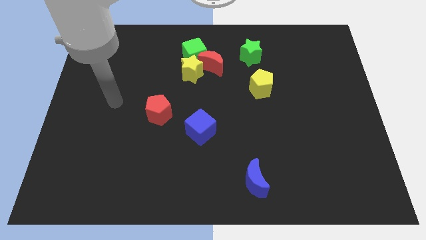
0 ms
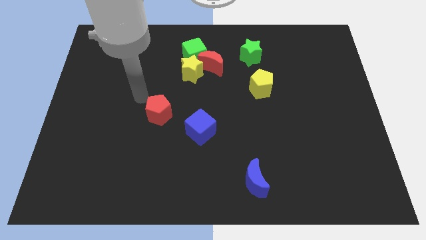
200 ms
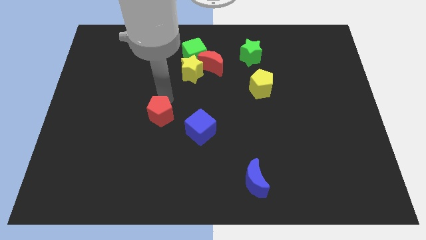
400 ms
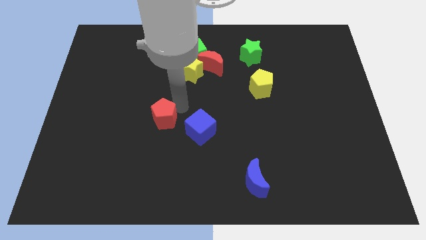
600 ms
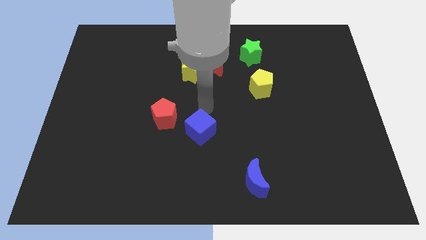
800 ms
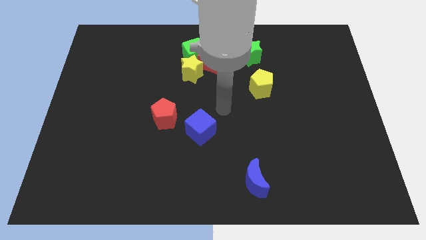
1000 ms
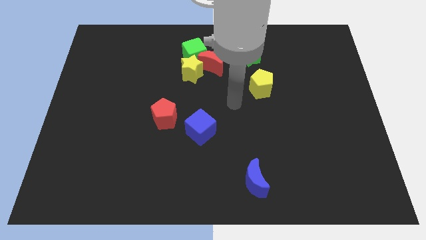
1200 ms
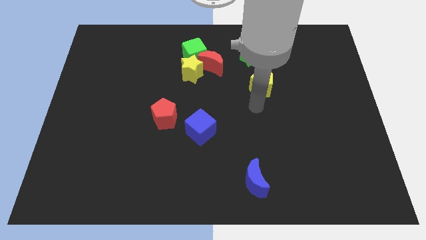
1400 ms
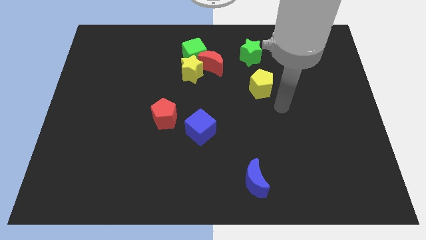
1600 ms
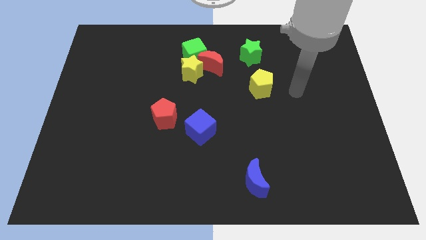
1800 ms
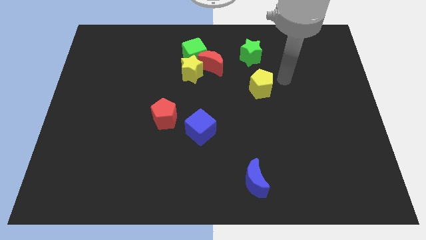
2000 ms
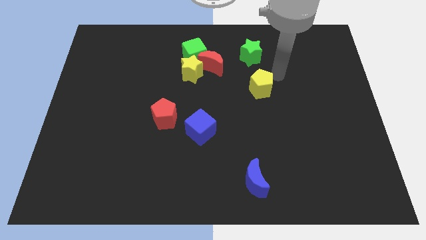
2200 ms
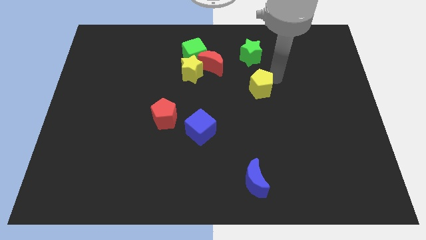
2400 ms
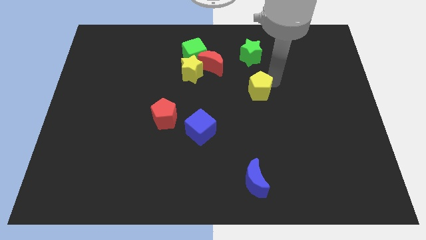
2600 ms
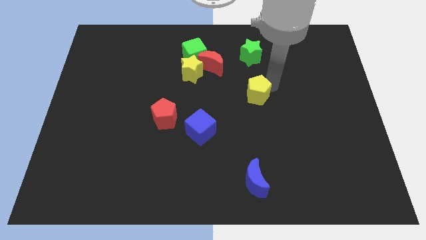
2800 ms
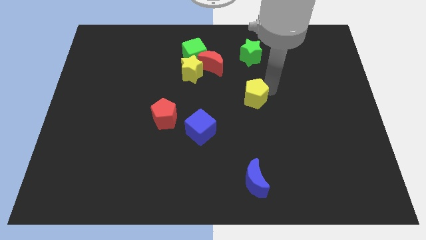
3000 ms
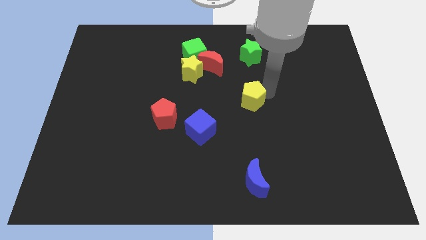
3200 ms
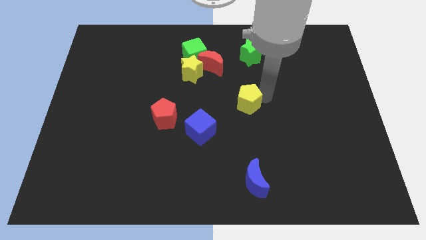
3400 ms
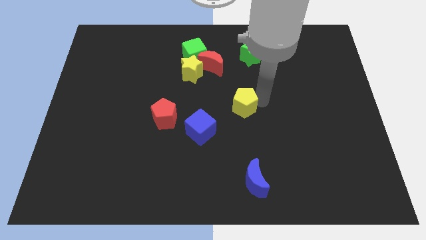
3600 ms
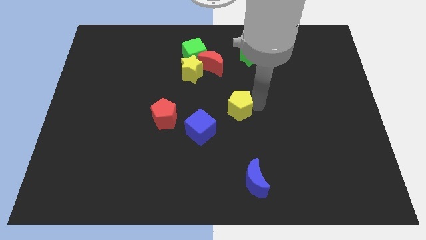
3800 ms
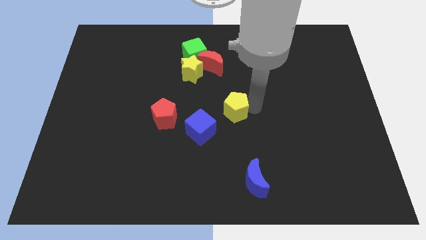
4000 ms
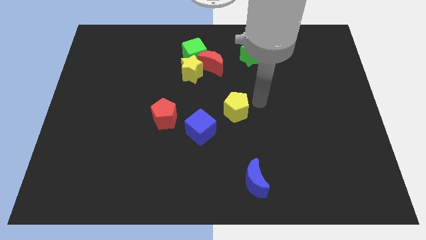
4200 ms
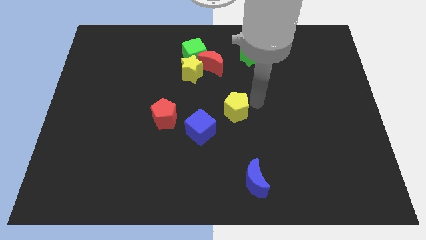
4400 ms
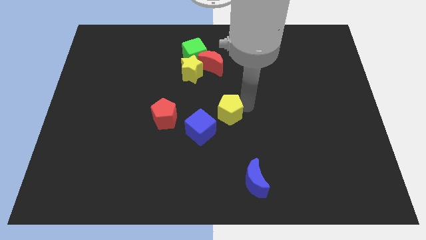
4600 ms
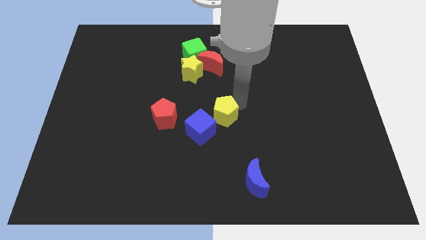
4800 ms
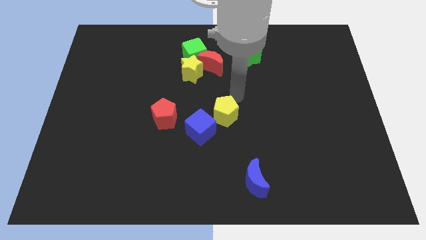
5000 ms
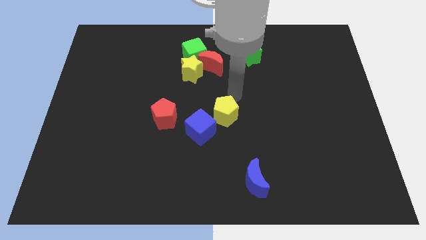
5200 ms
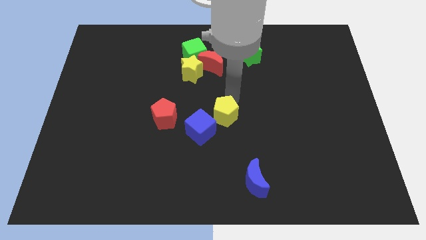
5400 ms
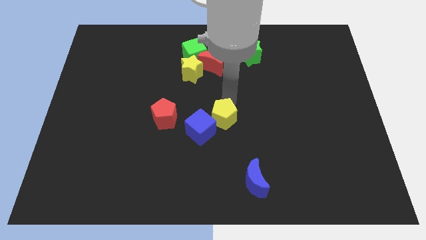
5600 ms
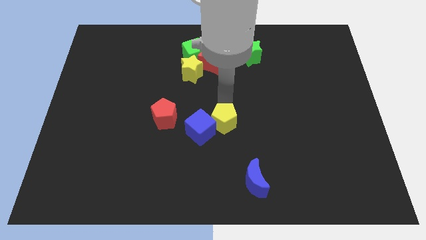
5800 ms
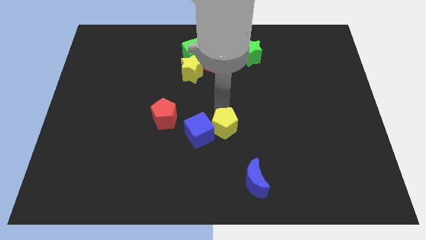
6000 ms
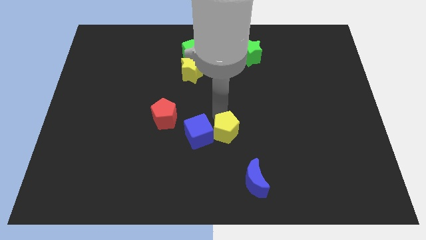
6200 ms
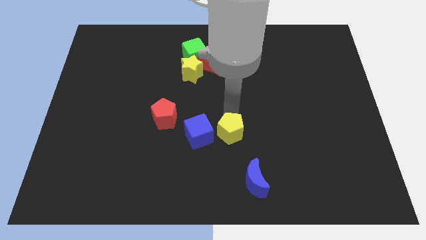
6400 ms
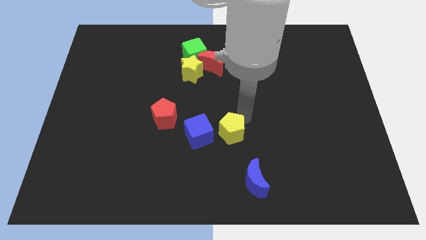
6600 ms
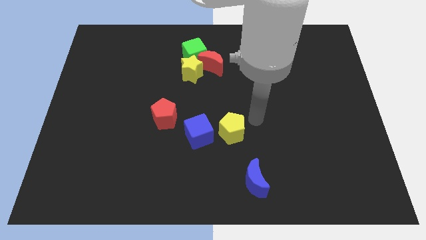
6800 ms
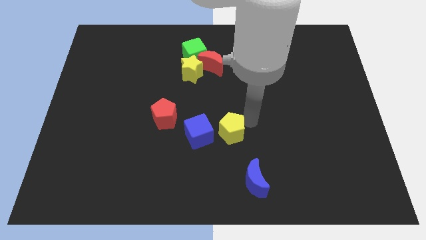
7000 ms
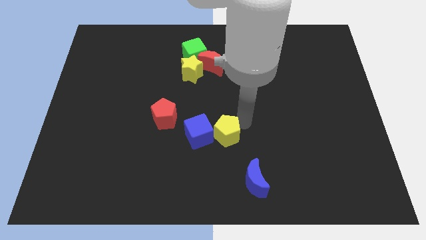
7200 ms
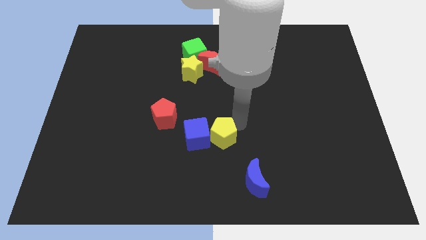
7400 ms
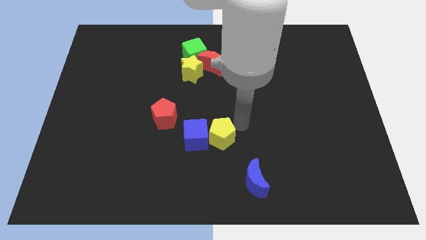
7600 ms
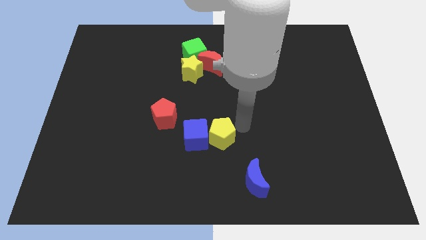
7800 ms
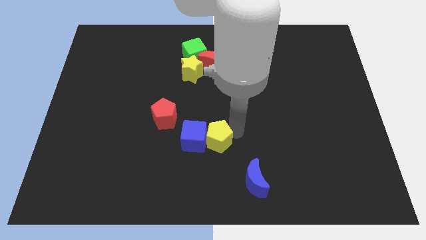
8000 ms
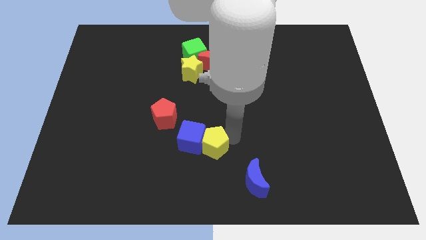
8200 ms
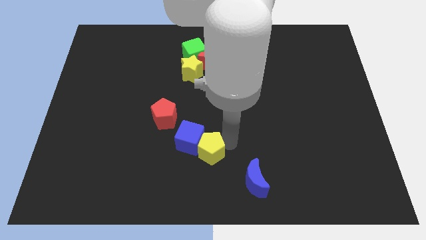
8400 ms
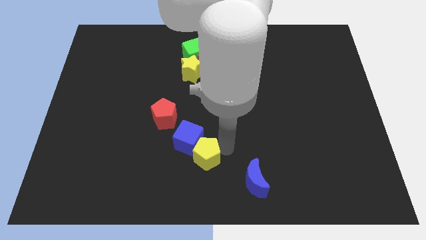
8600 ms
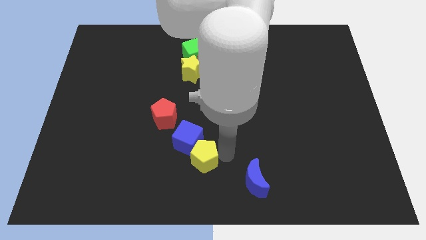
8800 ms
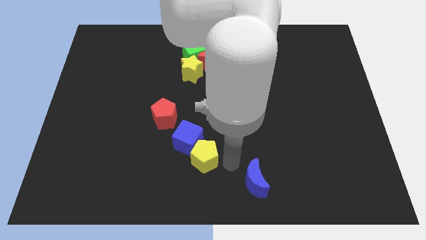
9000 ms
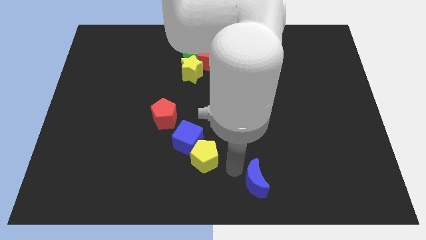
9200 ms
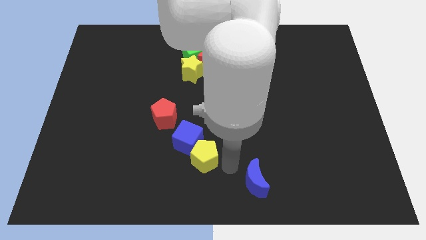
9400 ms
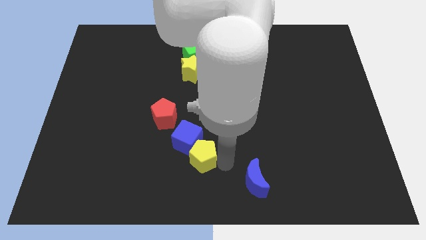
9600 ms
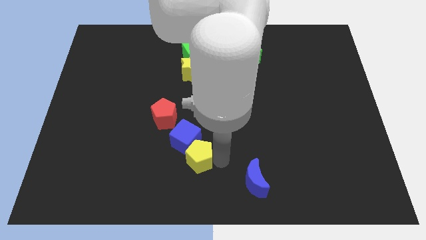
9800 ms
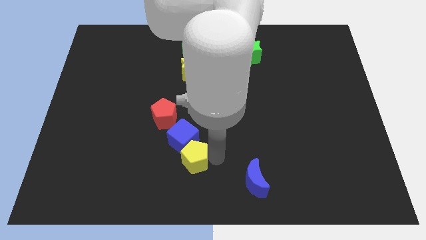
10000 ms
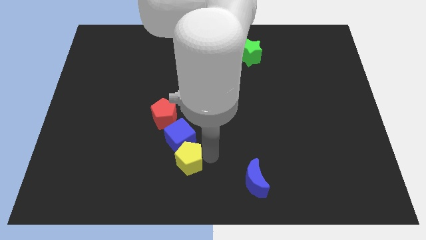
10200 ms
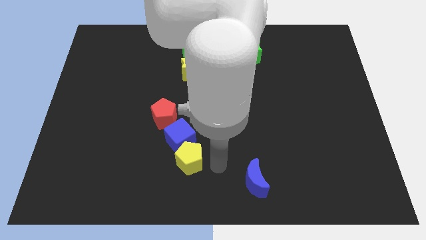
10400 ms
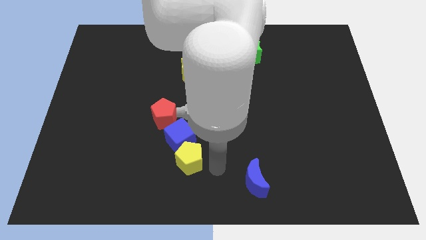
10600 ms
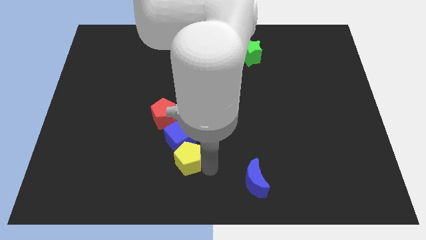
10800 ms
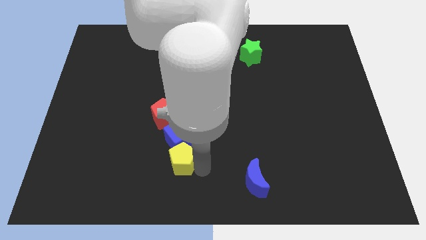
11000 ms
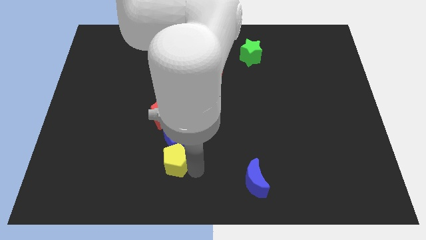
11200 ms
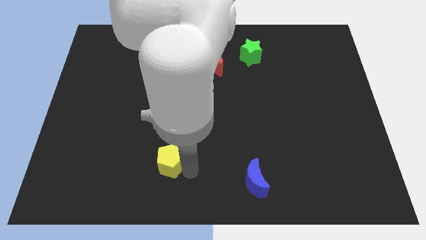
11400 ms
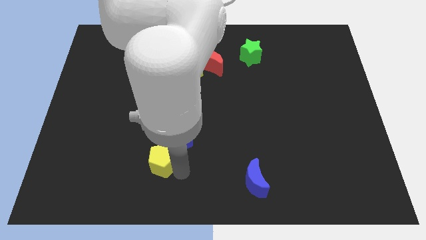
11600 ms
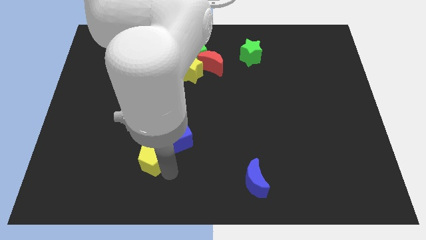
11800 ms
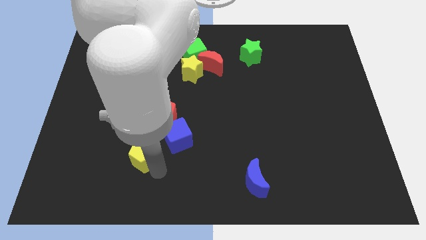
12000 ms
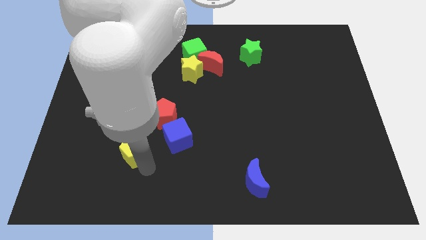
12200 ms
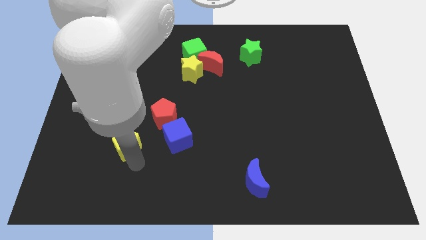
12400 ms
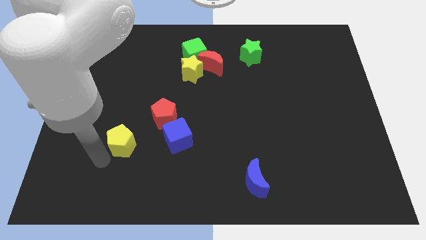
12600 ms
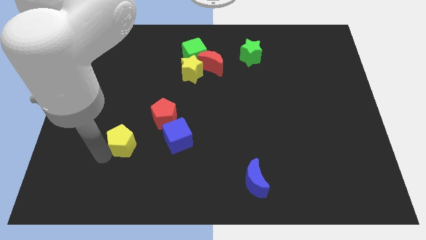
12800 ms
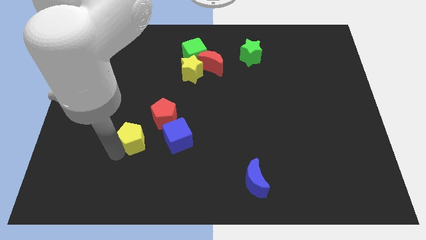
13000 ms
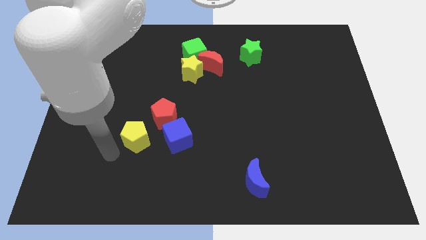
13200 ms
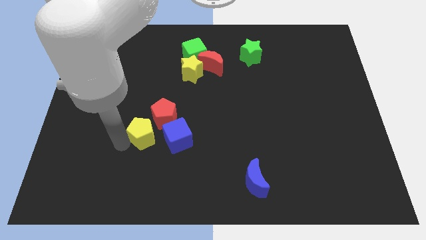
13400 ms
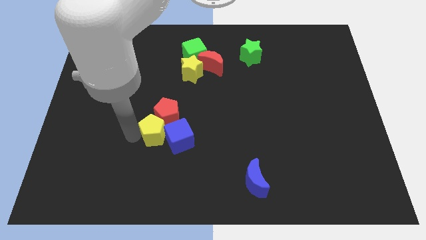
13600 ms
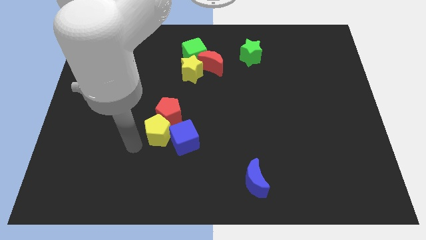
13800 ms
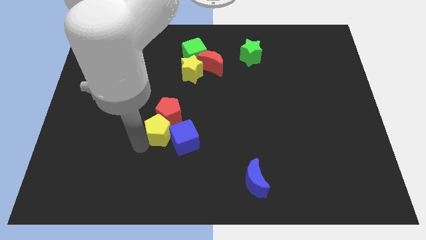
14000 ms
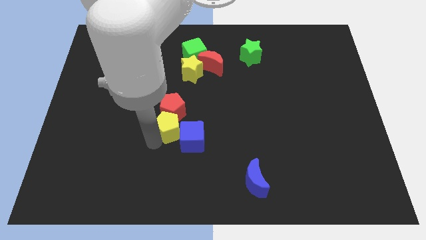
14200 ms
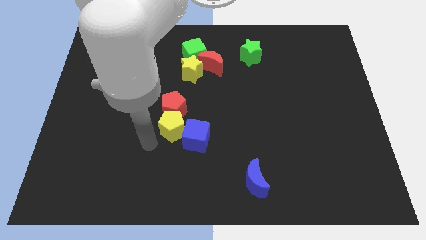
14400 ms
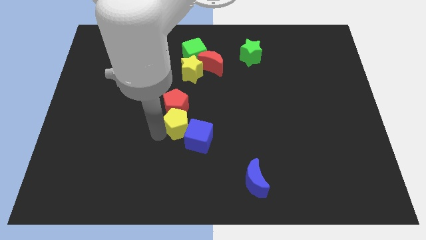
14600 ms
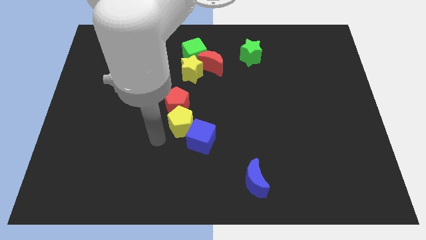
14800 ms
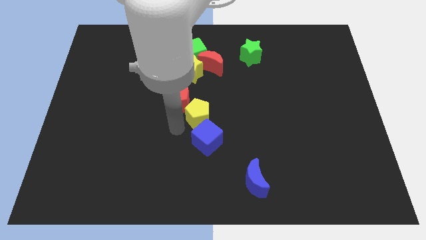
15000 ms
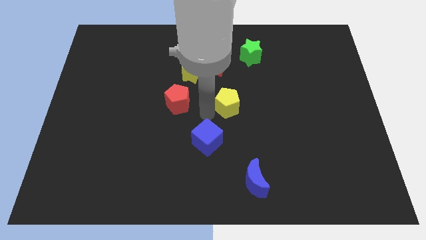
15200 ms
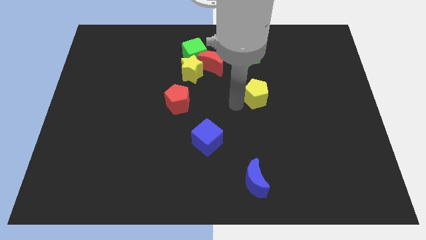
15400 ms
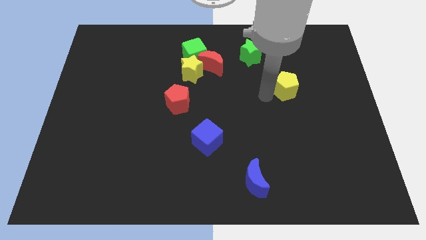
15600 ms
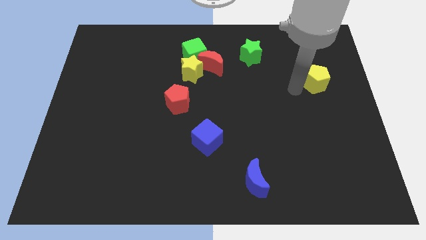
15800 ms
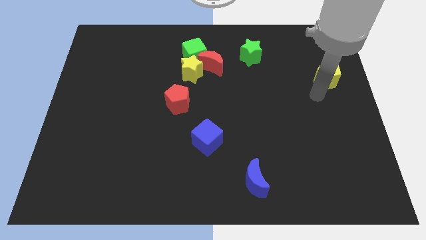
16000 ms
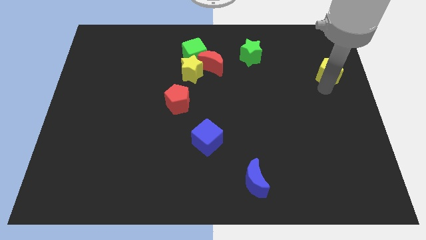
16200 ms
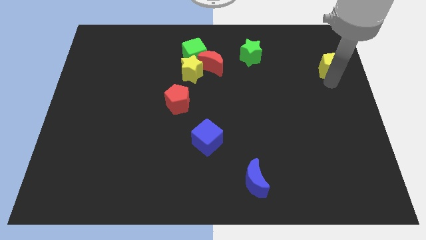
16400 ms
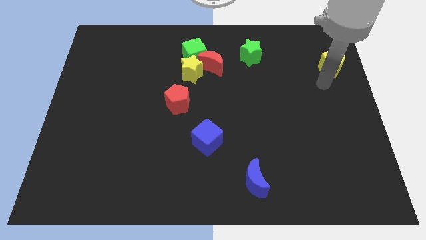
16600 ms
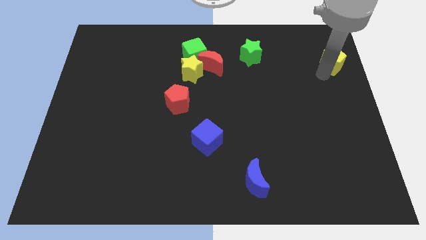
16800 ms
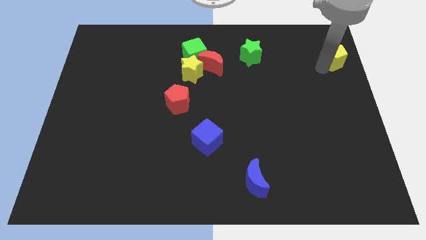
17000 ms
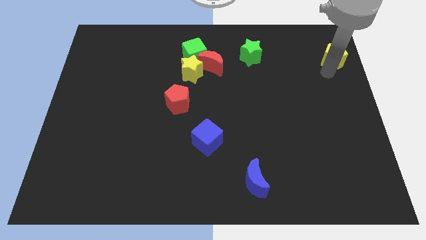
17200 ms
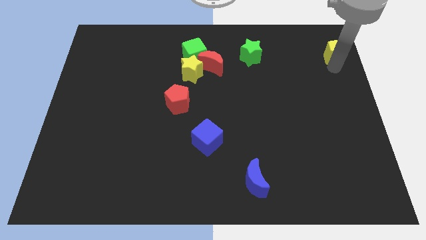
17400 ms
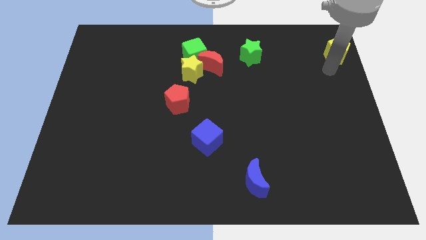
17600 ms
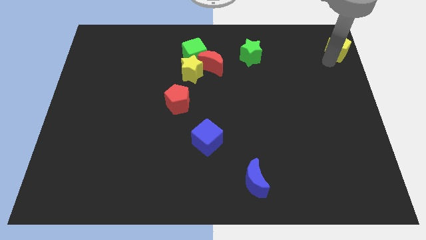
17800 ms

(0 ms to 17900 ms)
put the yellow pentagon to the top right of the board
